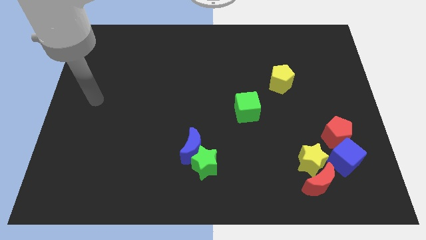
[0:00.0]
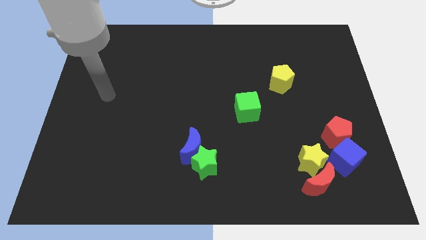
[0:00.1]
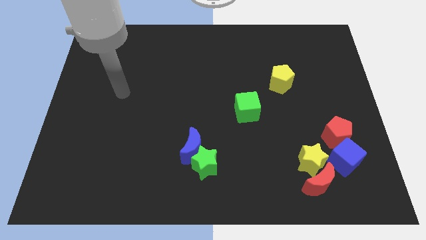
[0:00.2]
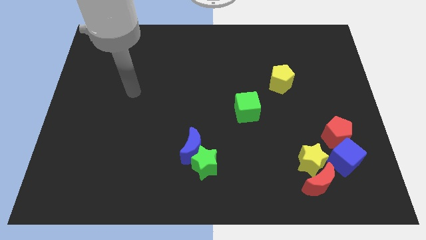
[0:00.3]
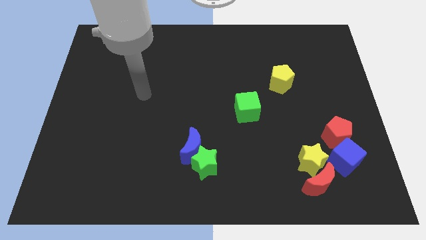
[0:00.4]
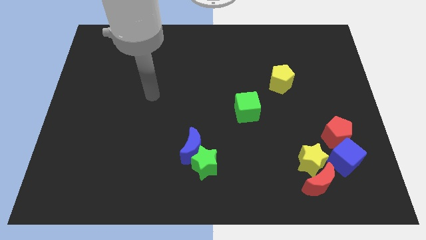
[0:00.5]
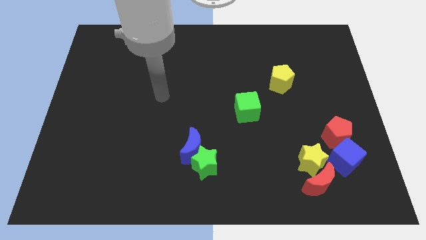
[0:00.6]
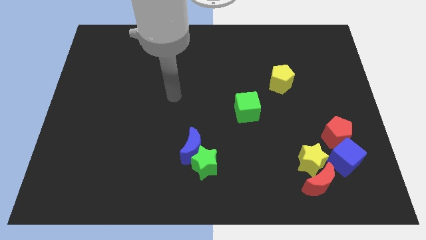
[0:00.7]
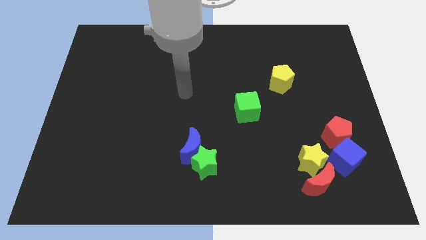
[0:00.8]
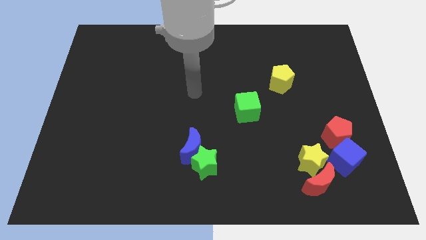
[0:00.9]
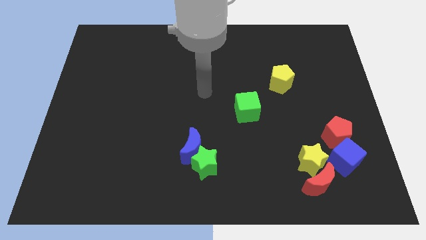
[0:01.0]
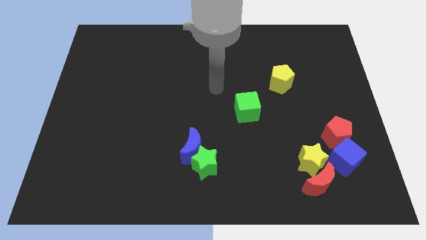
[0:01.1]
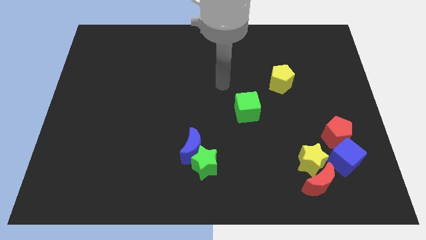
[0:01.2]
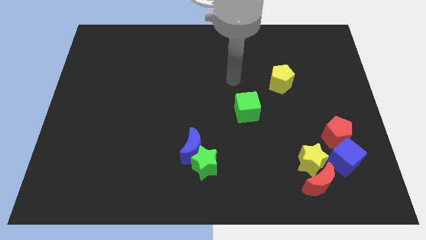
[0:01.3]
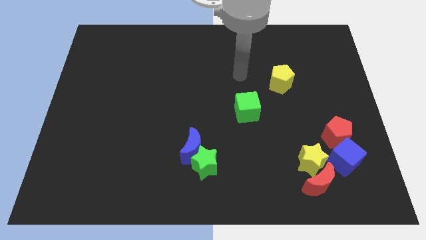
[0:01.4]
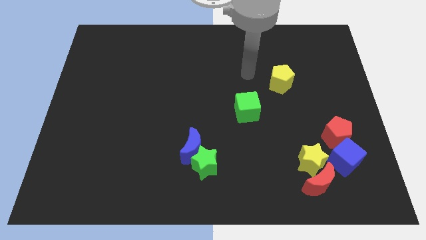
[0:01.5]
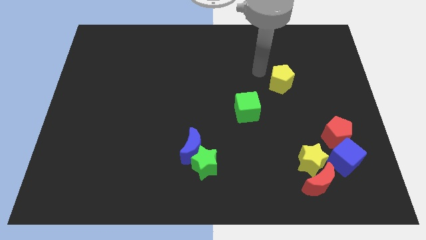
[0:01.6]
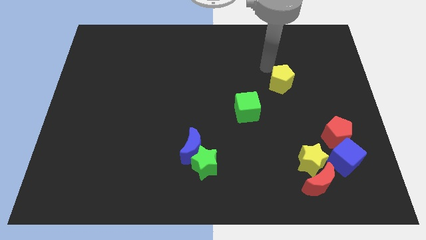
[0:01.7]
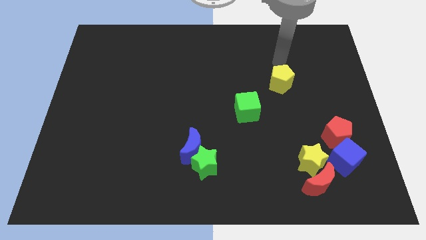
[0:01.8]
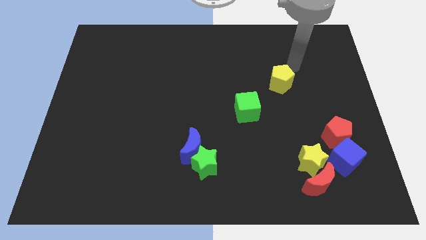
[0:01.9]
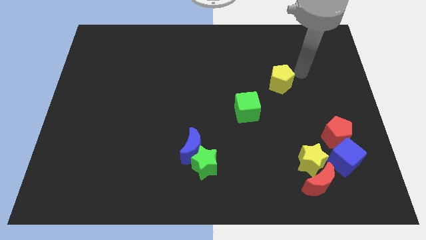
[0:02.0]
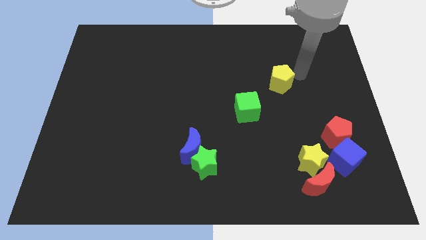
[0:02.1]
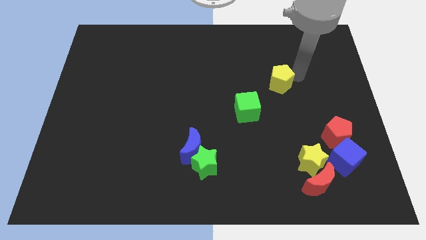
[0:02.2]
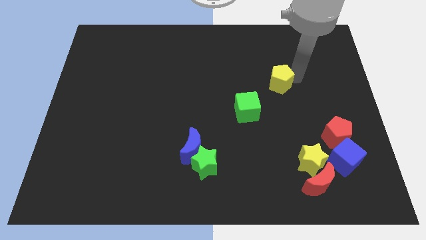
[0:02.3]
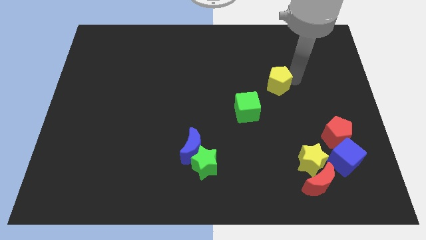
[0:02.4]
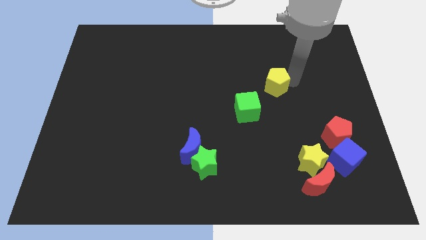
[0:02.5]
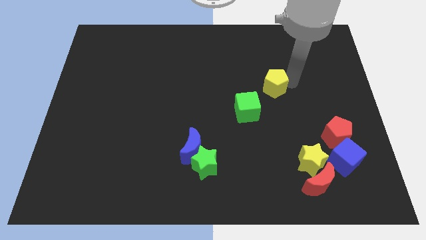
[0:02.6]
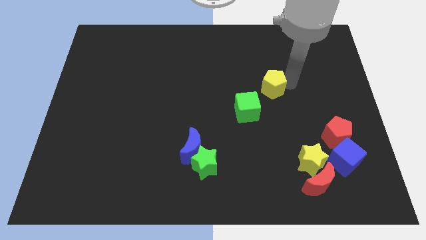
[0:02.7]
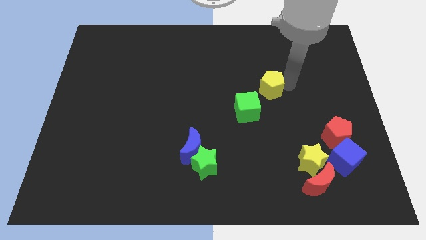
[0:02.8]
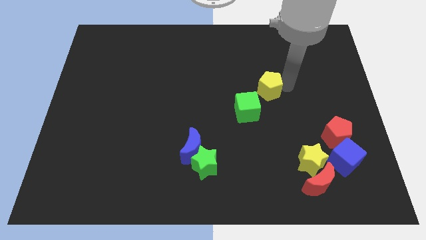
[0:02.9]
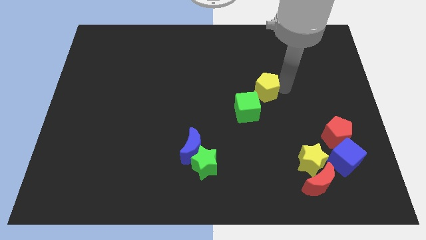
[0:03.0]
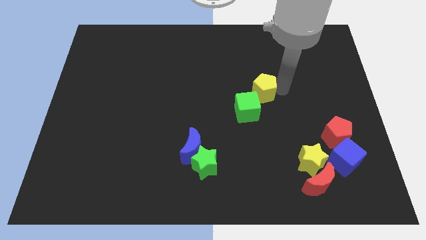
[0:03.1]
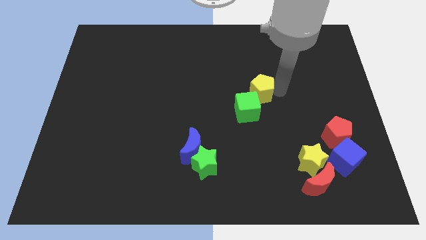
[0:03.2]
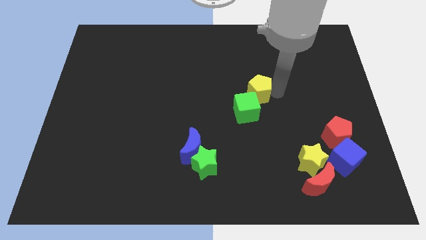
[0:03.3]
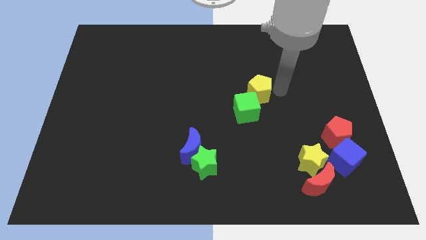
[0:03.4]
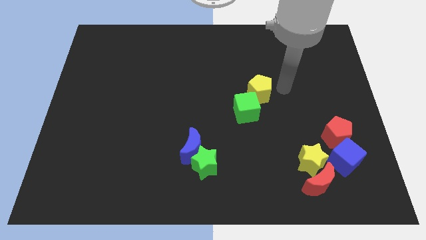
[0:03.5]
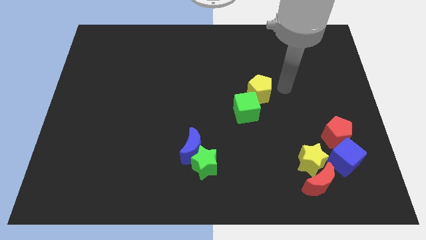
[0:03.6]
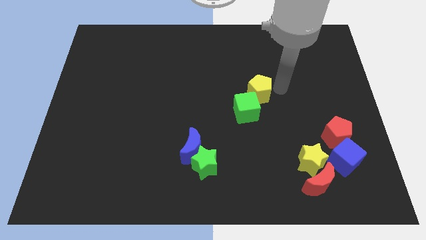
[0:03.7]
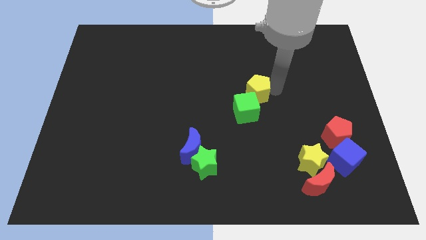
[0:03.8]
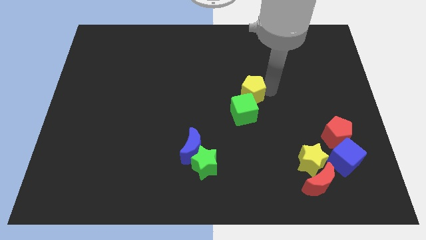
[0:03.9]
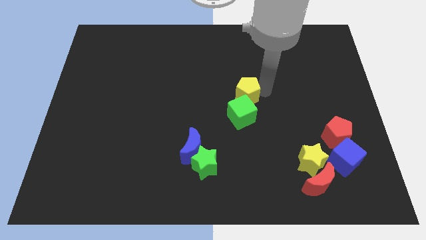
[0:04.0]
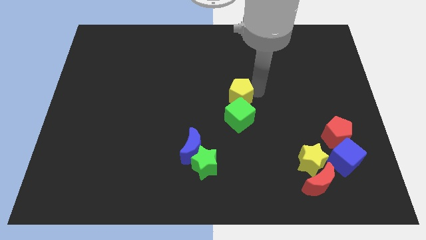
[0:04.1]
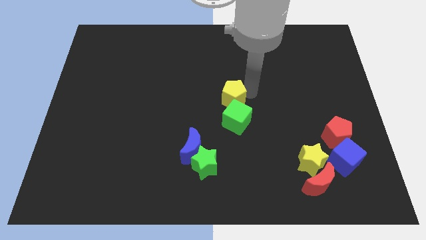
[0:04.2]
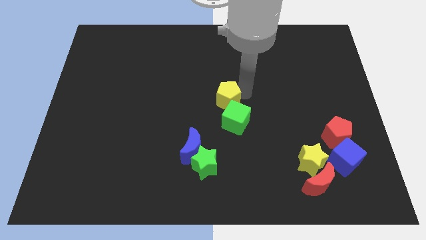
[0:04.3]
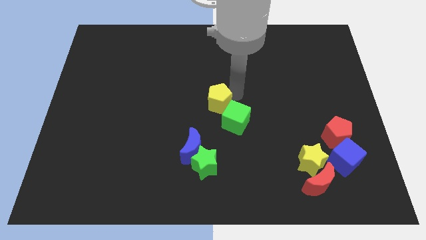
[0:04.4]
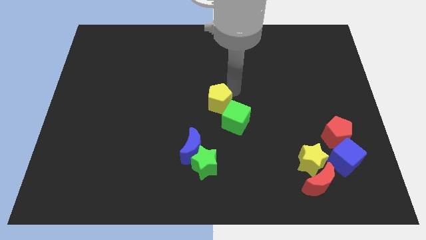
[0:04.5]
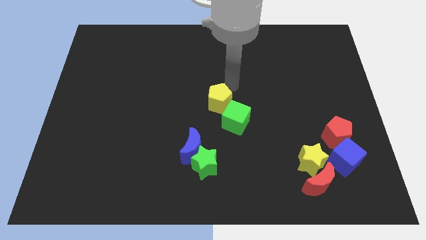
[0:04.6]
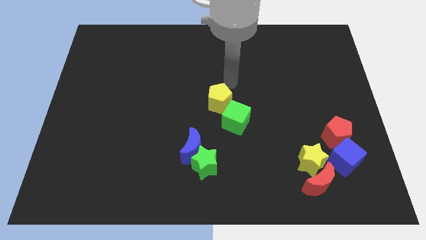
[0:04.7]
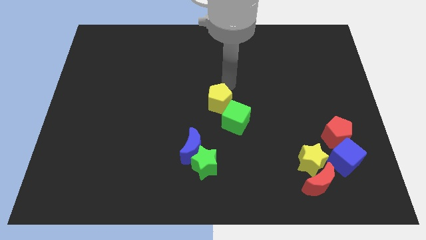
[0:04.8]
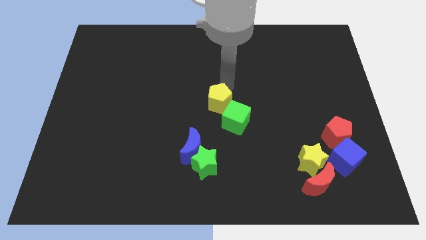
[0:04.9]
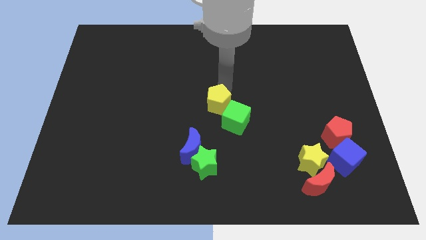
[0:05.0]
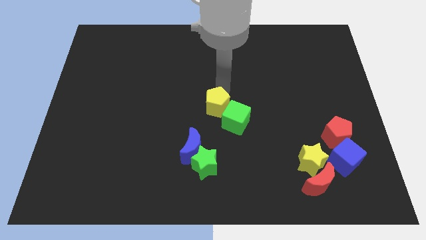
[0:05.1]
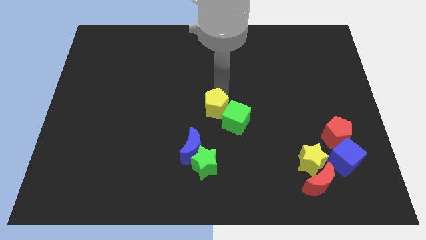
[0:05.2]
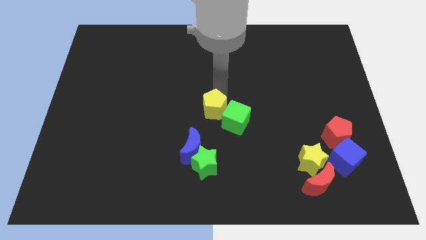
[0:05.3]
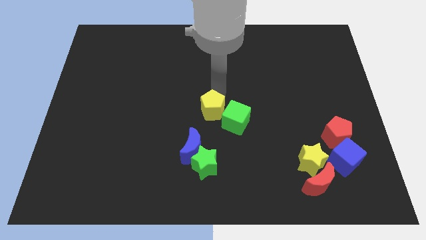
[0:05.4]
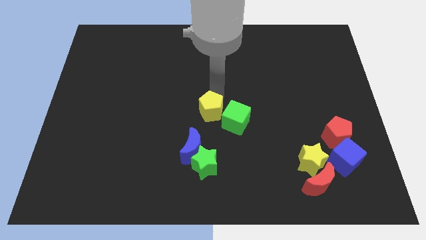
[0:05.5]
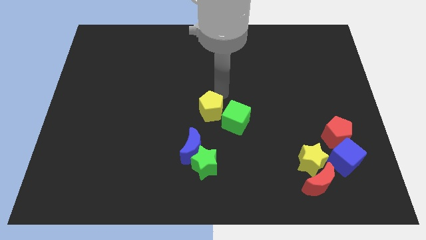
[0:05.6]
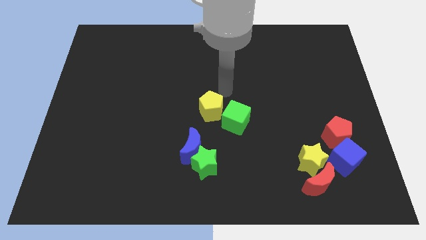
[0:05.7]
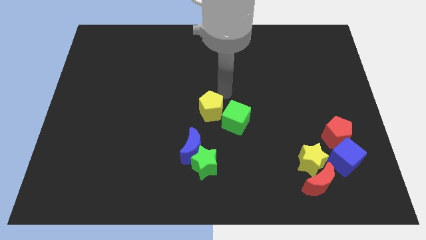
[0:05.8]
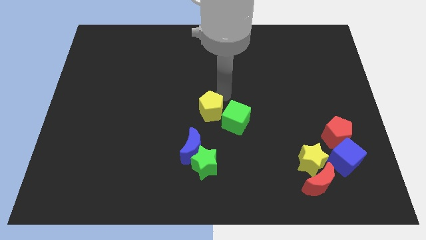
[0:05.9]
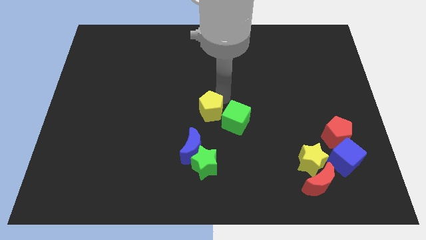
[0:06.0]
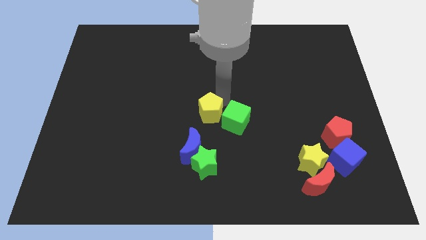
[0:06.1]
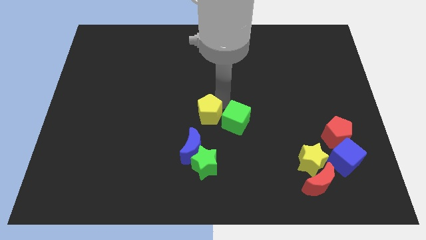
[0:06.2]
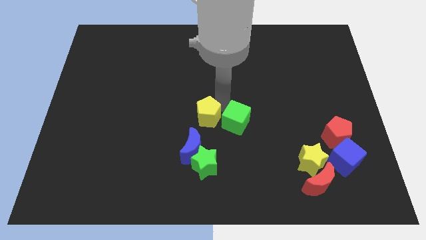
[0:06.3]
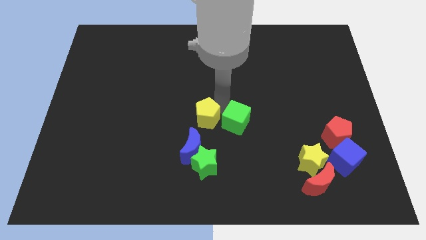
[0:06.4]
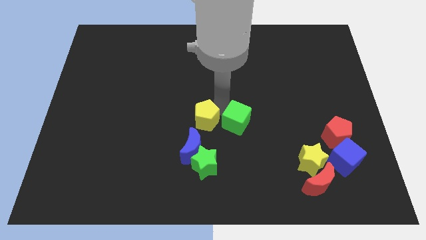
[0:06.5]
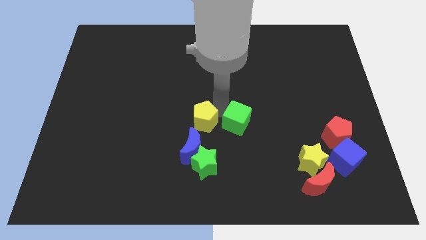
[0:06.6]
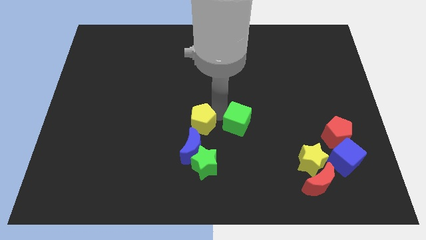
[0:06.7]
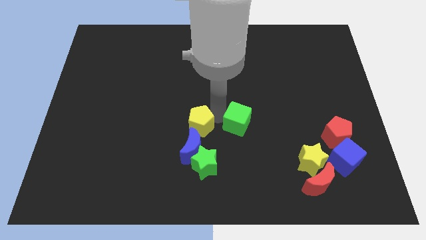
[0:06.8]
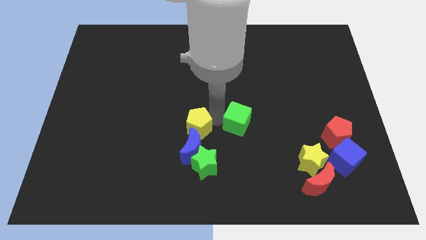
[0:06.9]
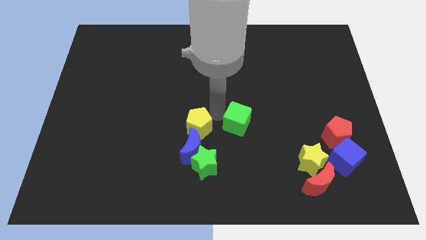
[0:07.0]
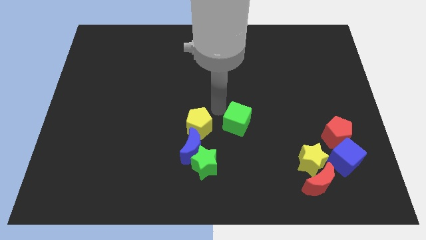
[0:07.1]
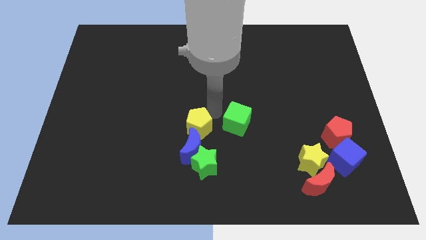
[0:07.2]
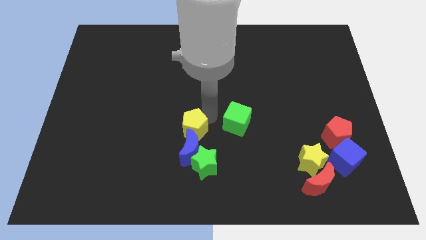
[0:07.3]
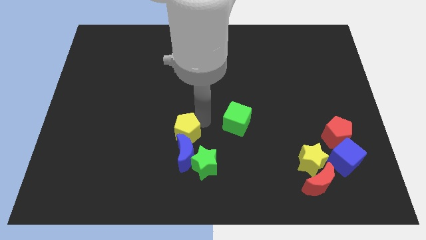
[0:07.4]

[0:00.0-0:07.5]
move the yellow pentagon diagonally up and to the left of the green star

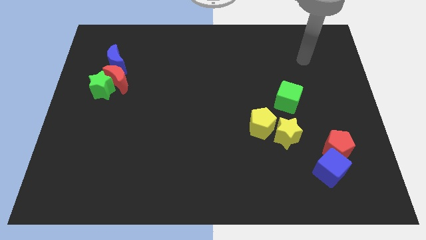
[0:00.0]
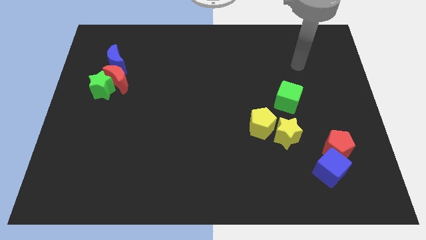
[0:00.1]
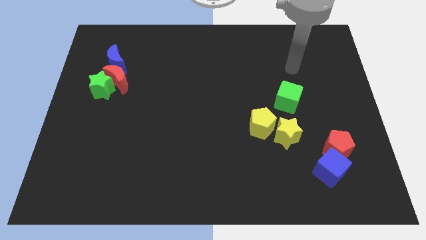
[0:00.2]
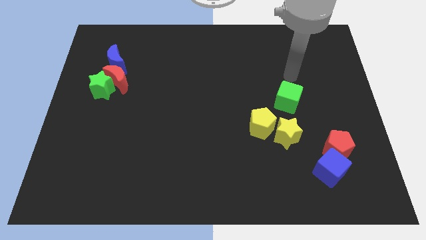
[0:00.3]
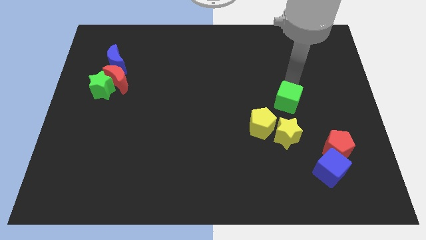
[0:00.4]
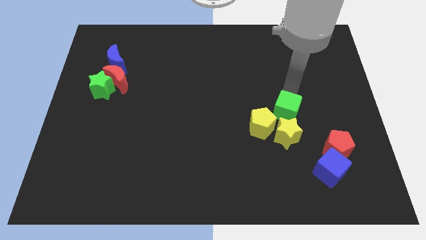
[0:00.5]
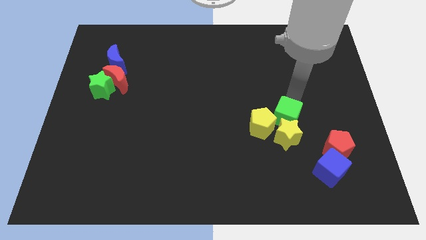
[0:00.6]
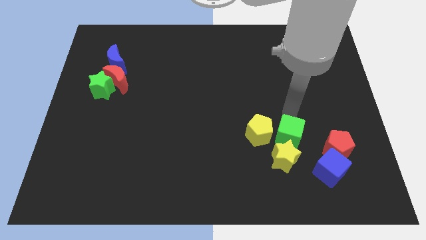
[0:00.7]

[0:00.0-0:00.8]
put the yellow star left of the blue cube
